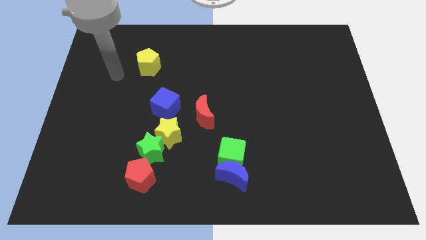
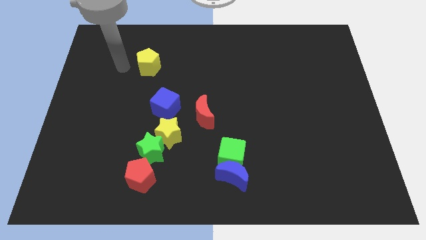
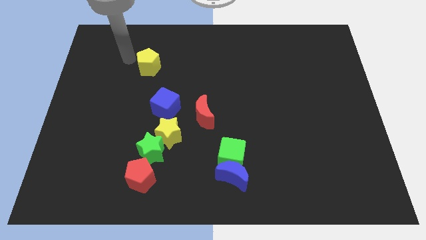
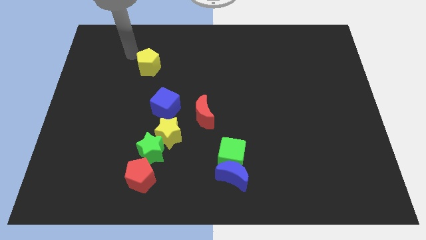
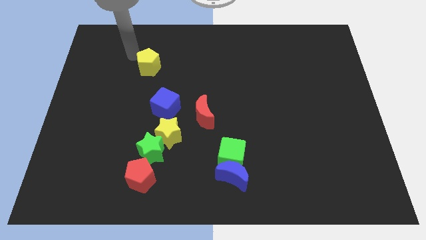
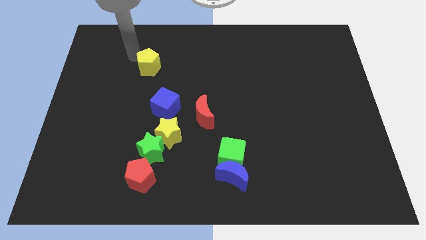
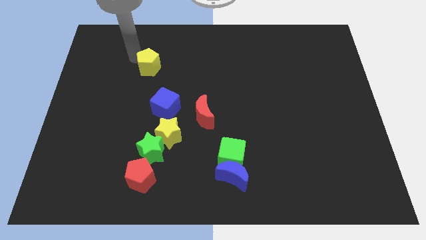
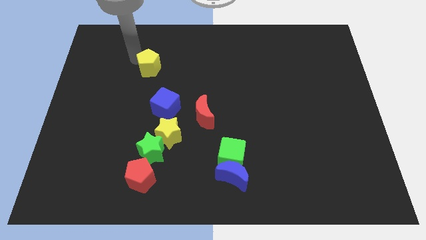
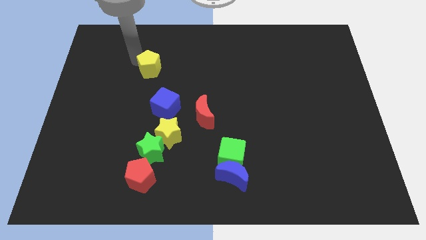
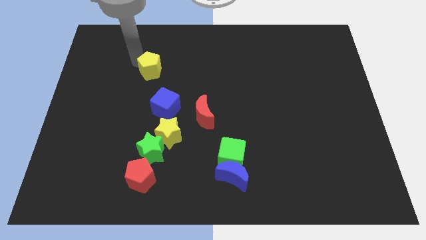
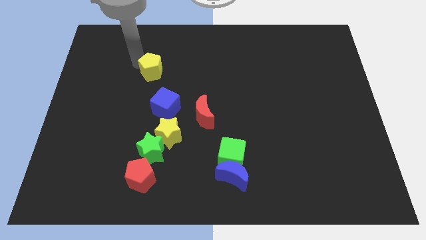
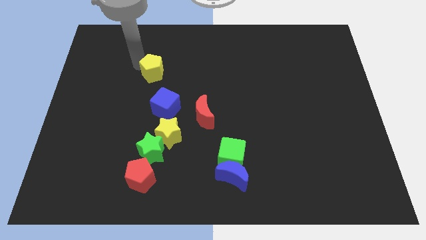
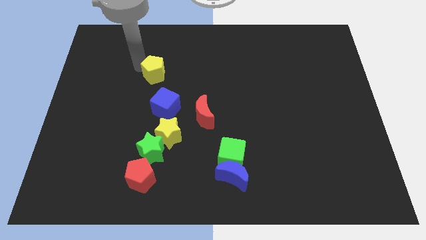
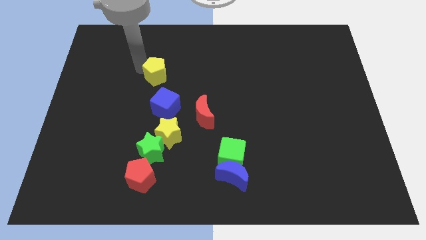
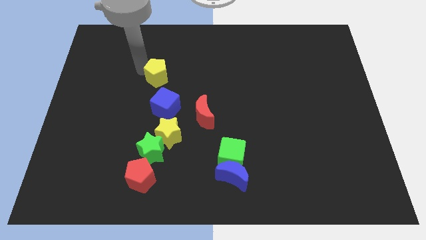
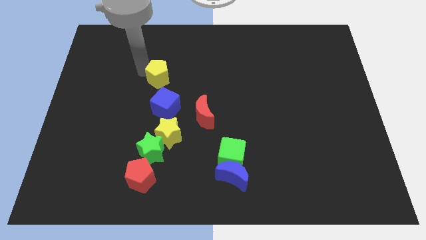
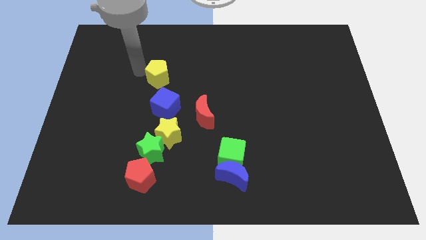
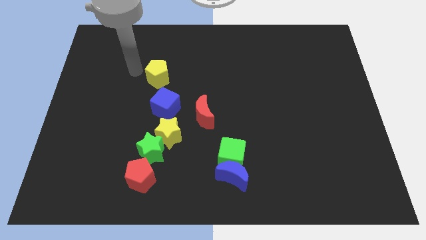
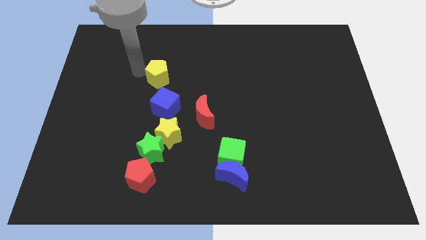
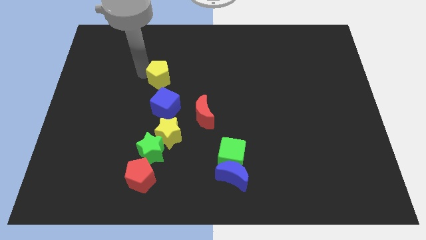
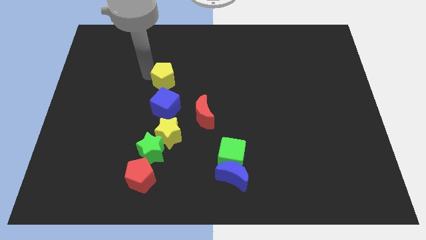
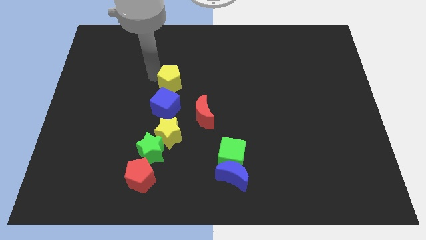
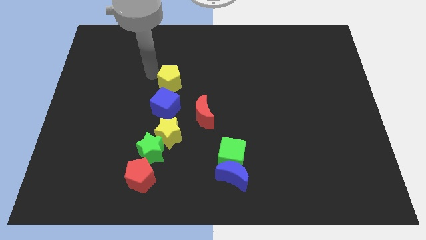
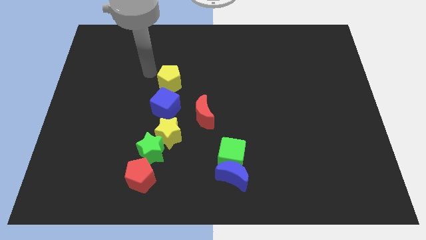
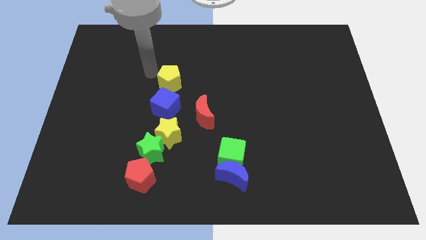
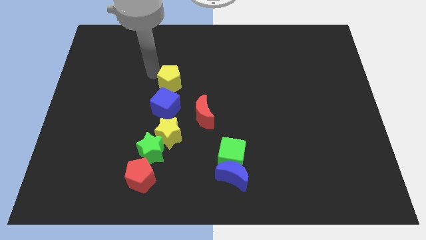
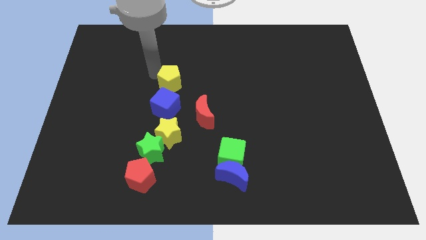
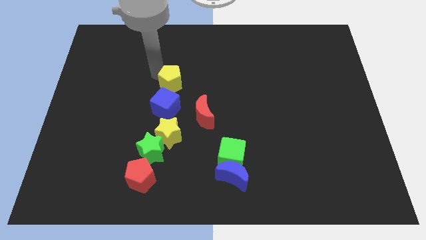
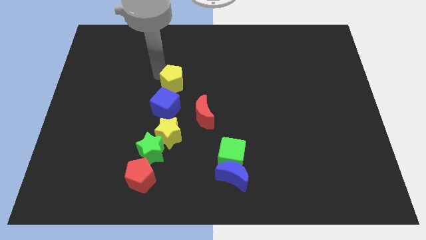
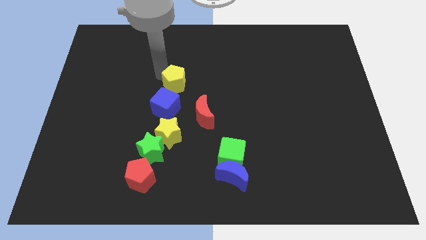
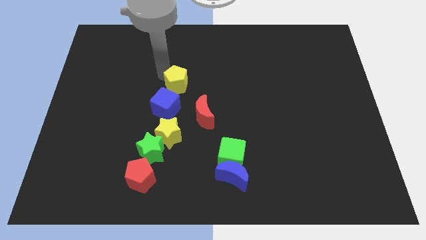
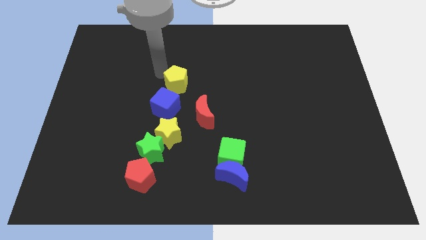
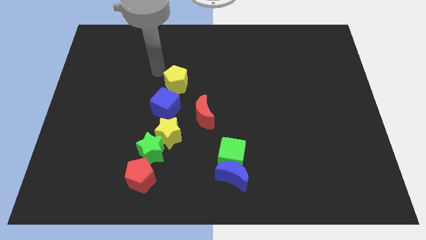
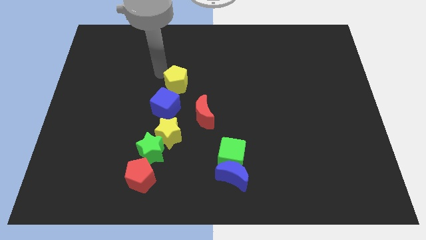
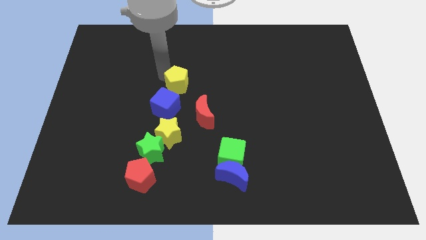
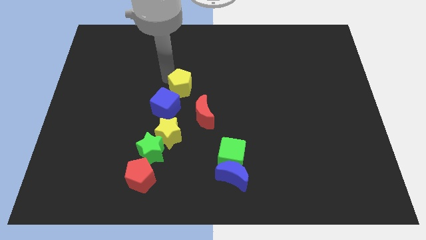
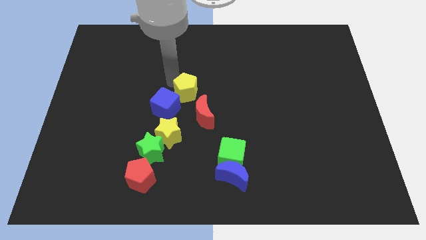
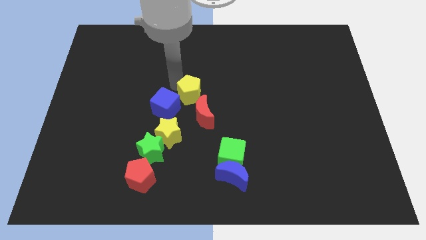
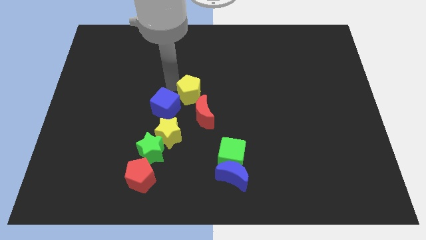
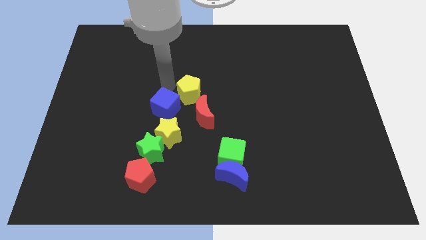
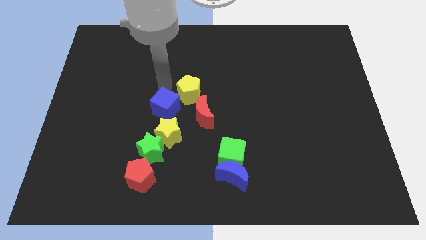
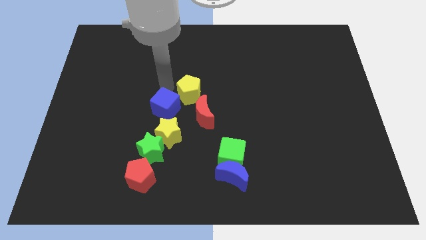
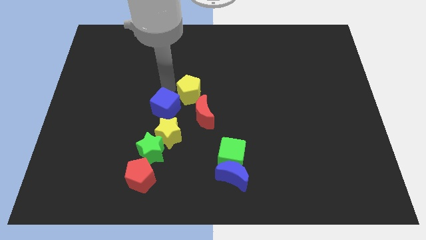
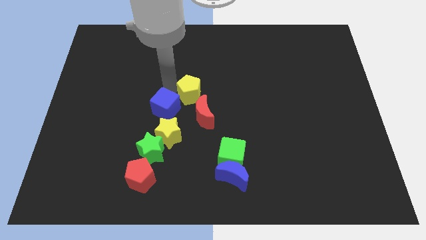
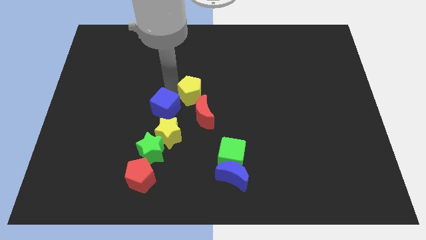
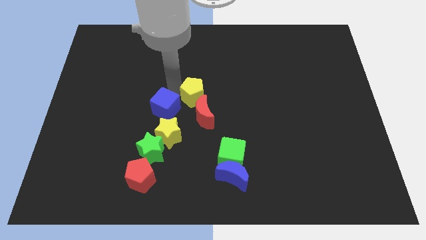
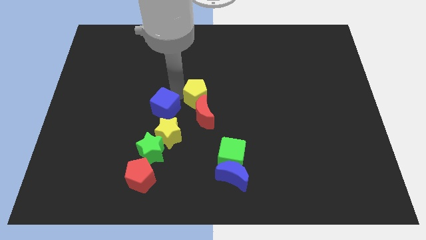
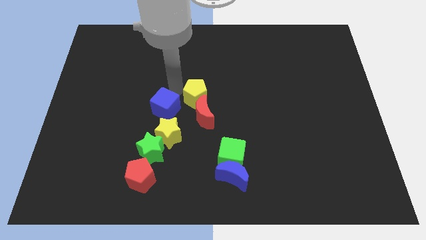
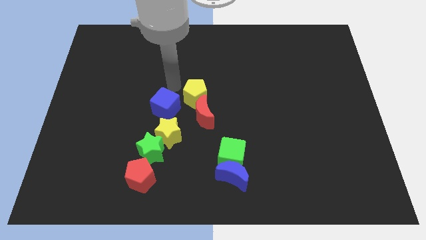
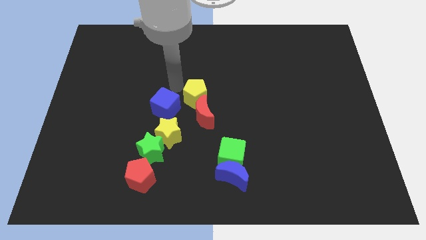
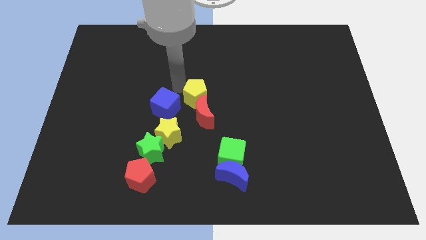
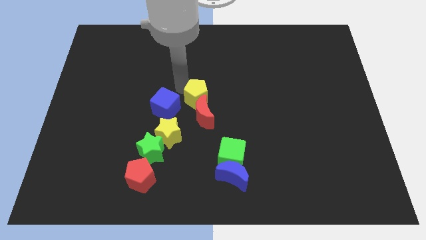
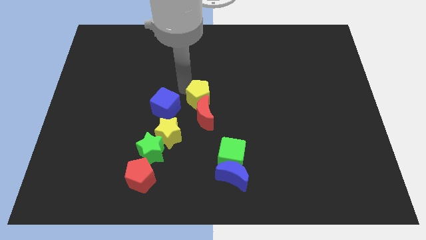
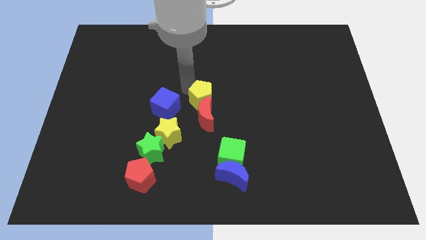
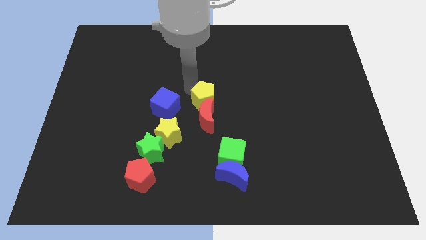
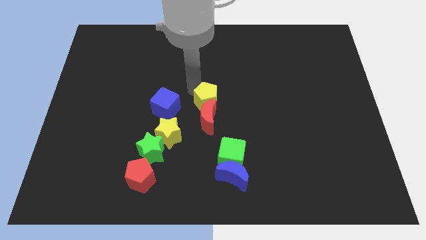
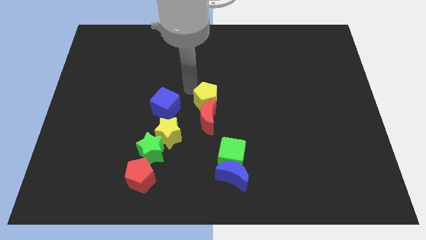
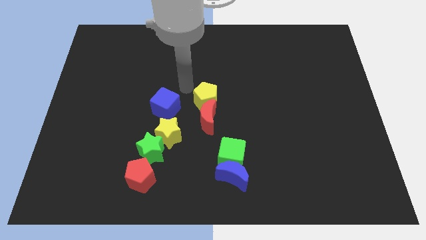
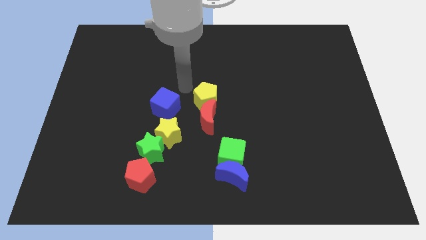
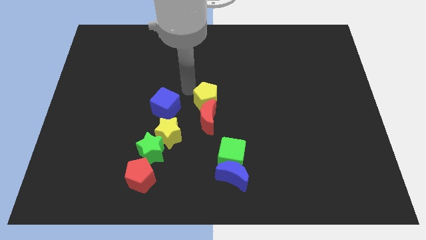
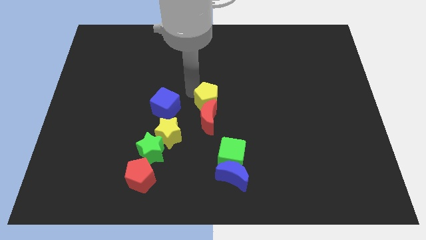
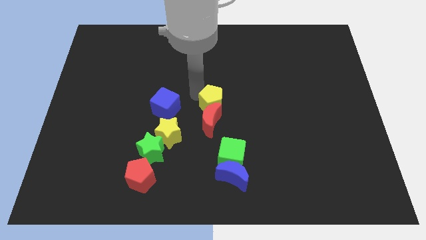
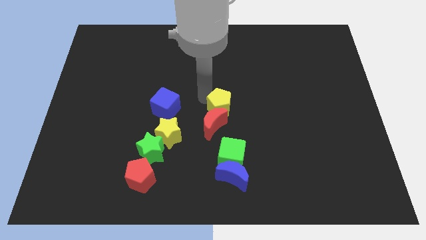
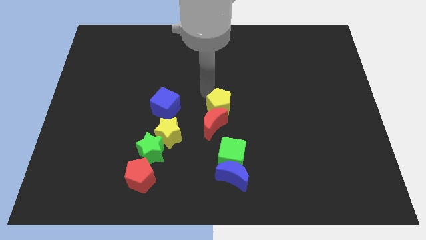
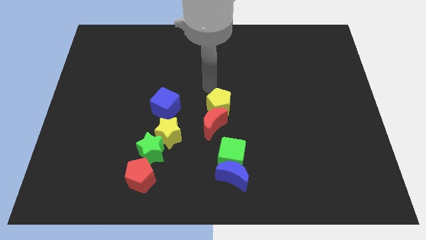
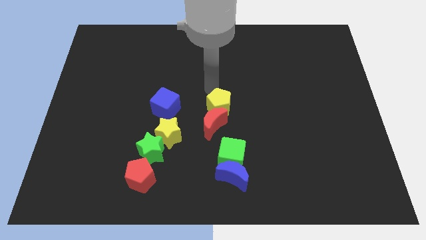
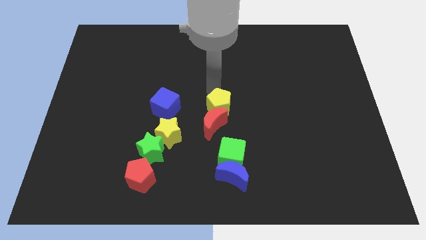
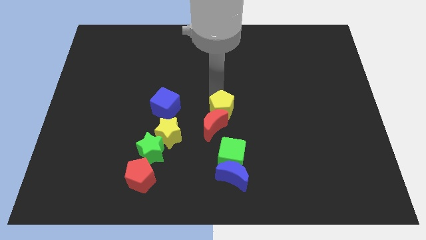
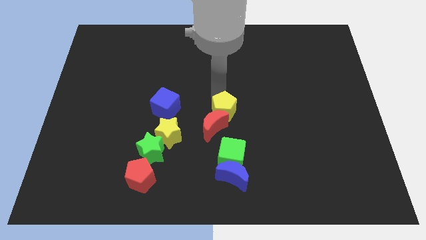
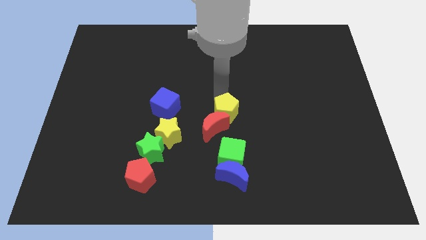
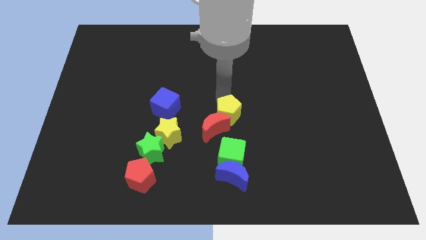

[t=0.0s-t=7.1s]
move the yellow pentagon to the top side of the blue moon

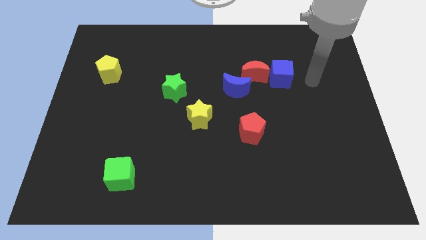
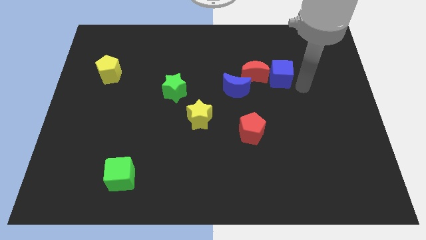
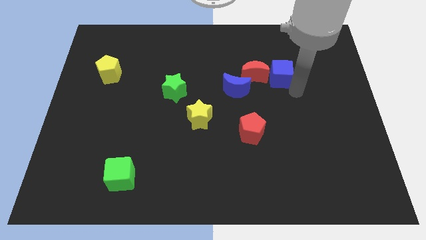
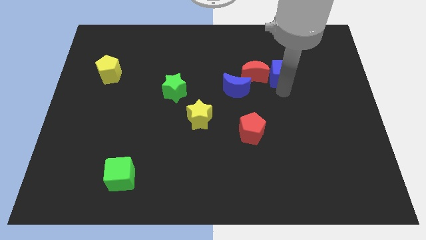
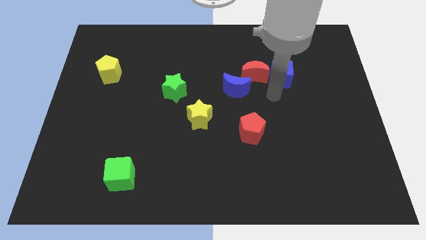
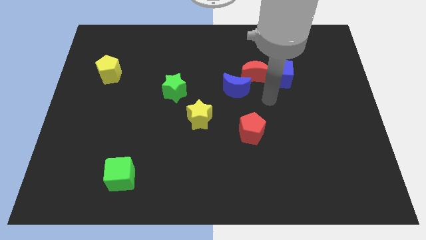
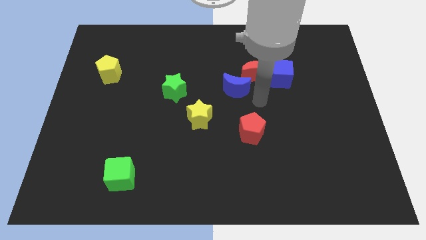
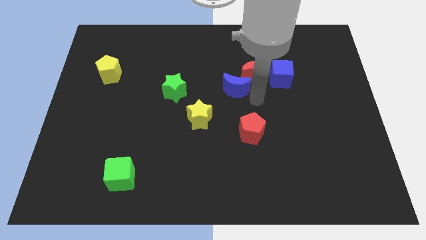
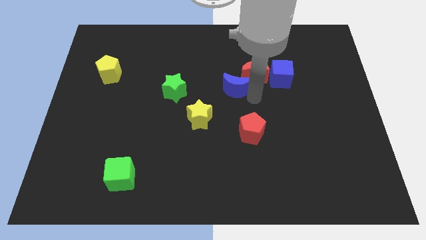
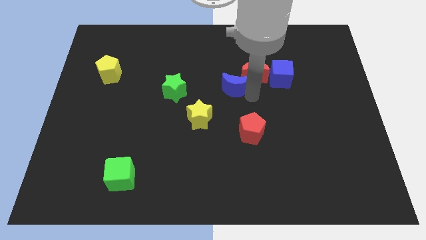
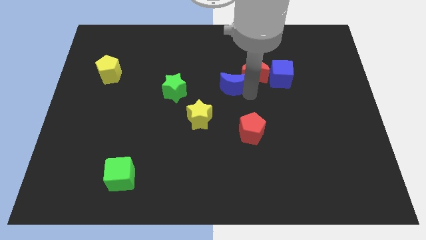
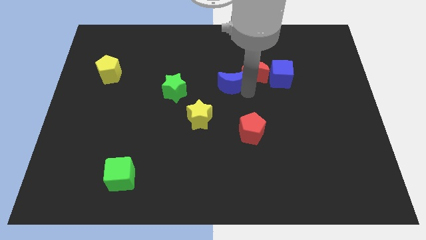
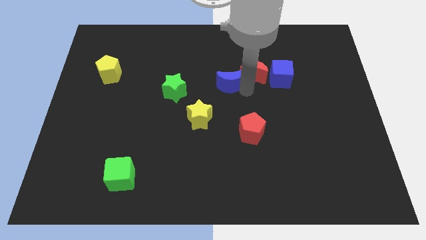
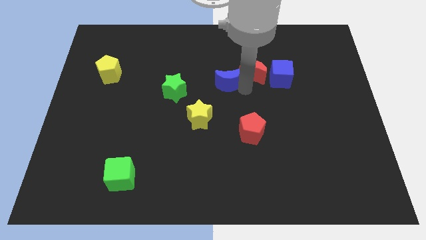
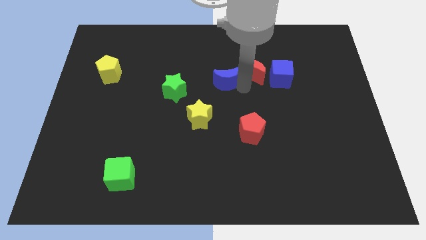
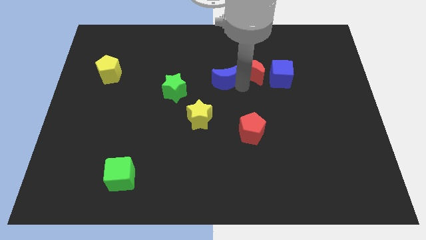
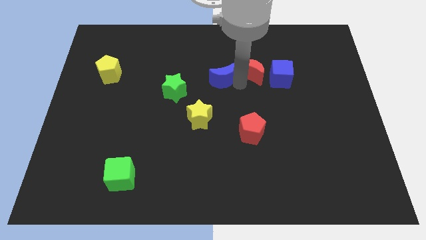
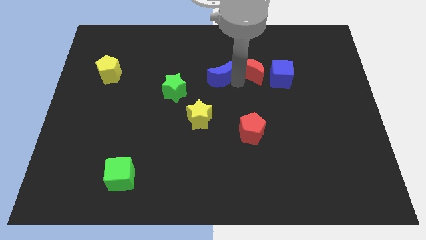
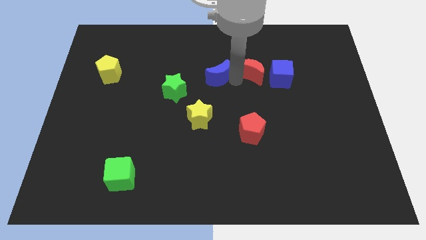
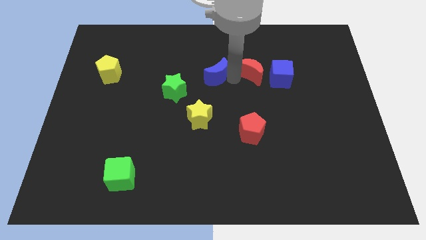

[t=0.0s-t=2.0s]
put the blue moon diagonally up and to the right of the green star
